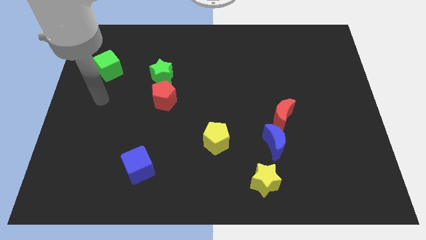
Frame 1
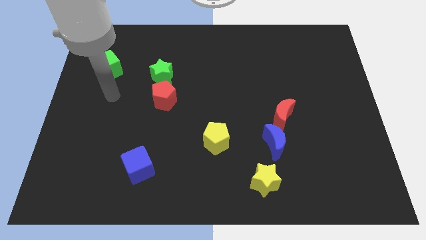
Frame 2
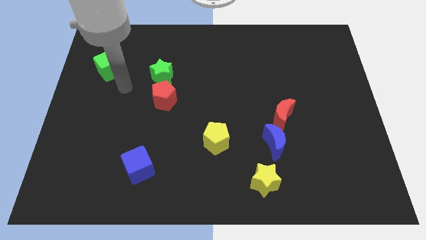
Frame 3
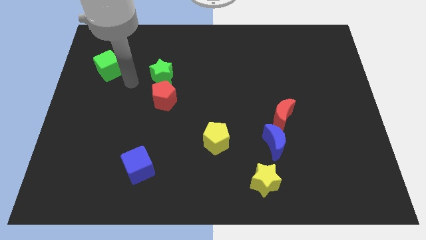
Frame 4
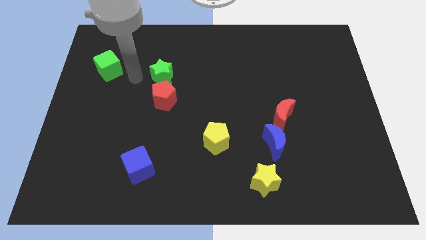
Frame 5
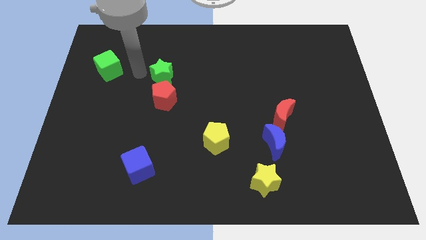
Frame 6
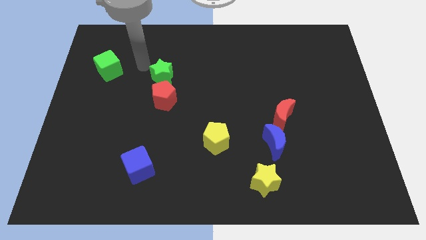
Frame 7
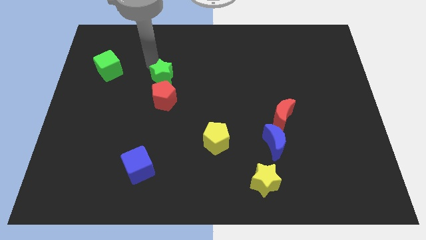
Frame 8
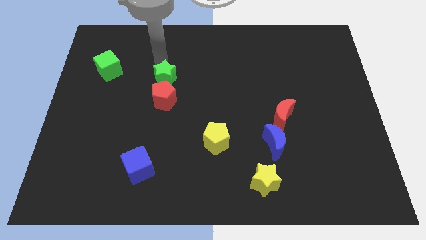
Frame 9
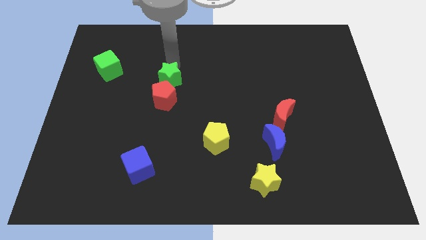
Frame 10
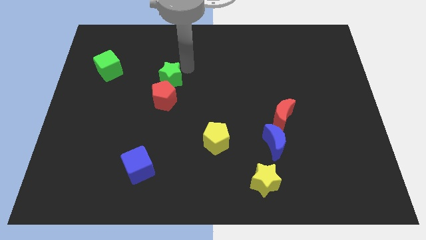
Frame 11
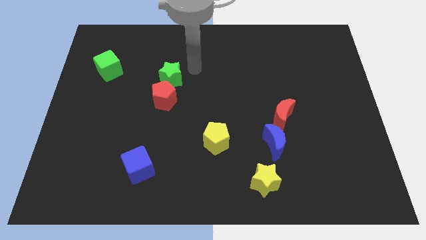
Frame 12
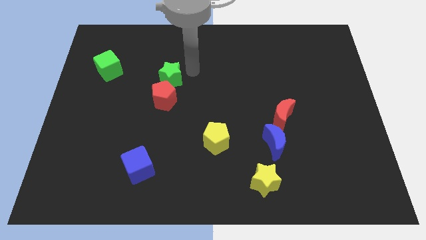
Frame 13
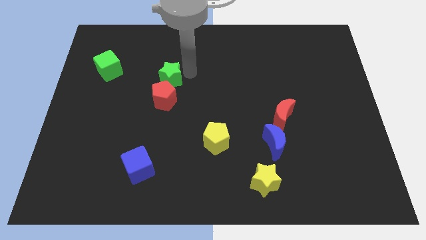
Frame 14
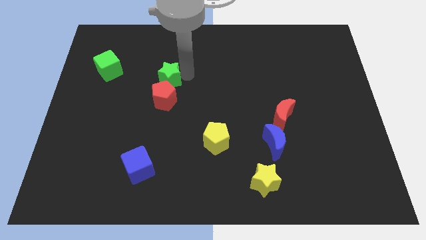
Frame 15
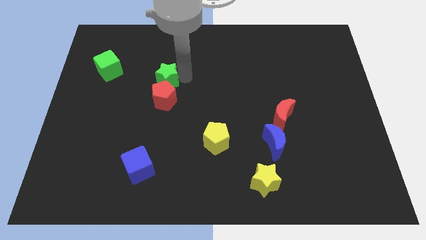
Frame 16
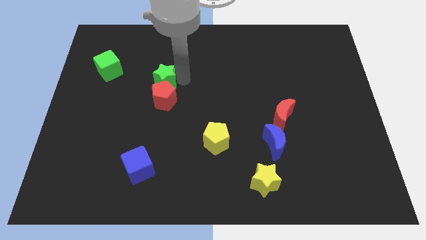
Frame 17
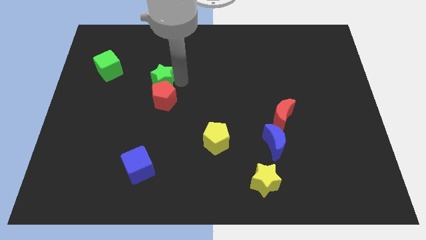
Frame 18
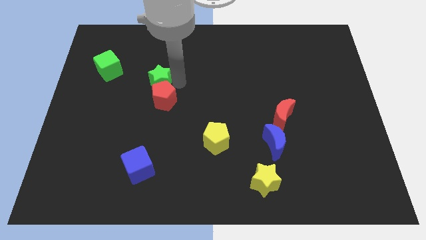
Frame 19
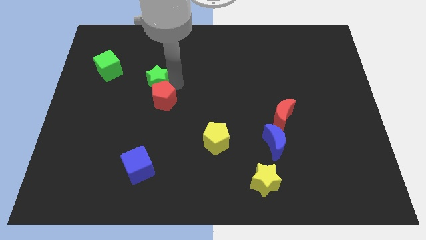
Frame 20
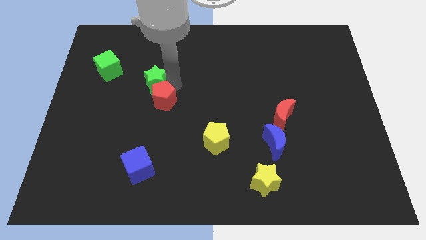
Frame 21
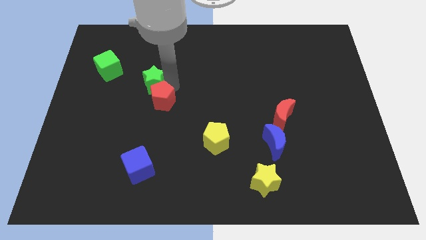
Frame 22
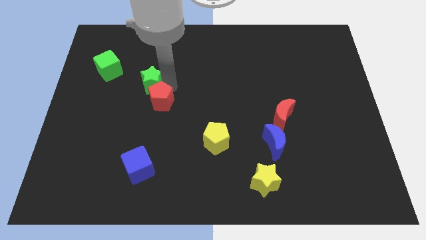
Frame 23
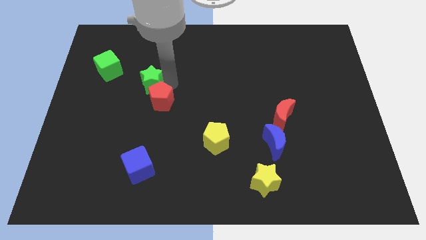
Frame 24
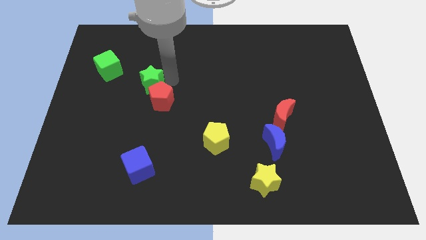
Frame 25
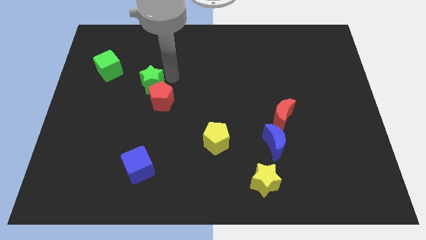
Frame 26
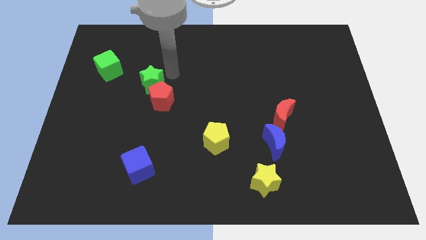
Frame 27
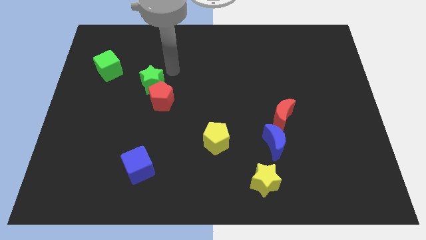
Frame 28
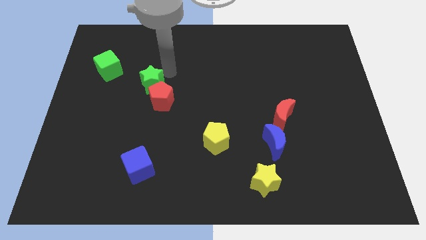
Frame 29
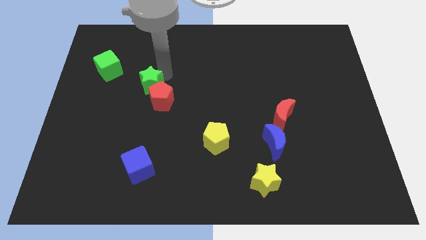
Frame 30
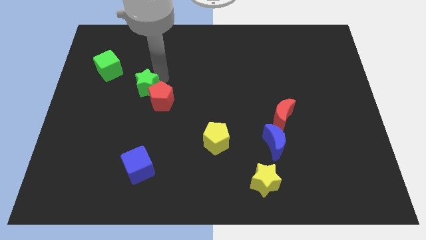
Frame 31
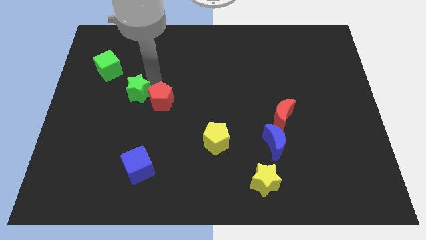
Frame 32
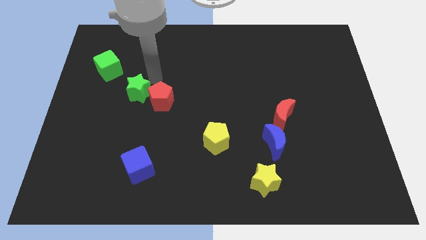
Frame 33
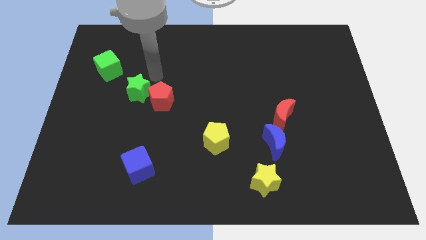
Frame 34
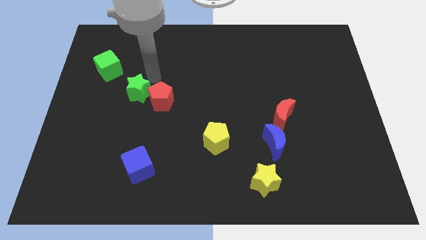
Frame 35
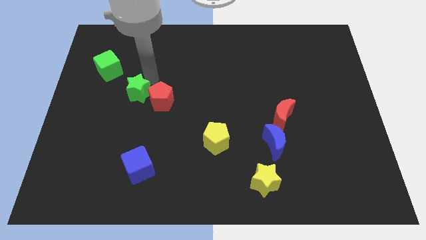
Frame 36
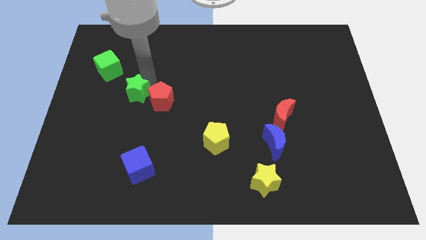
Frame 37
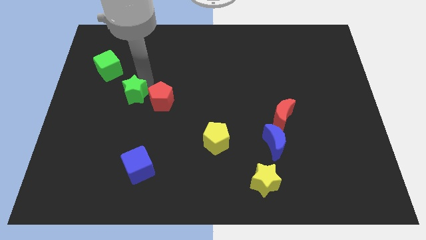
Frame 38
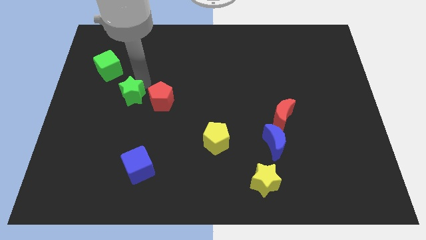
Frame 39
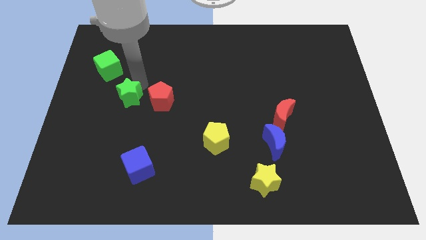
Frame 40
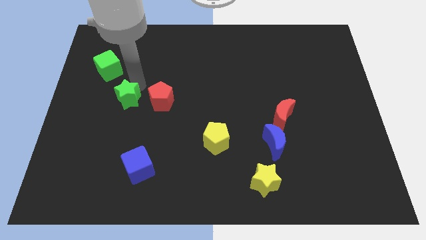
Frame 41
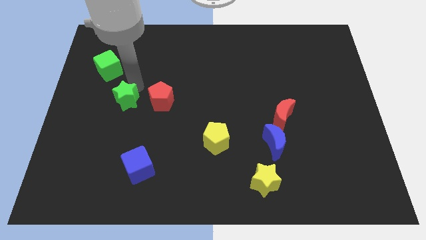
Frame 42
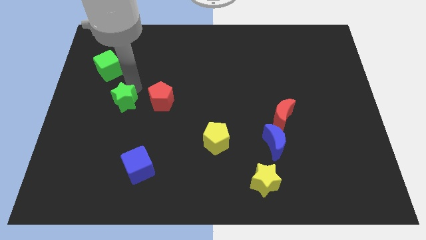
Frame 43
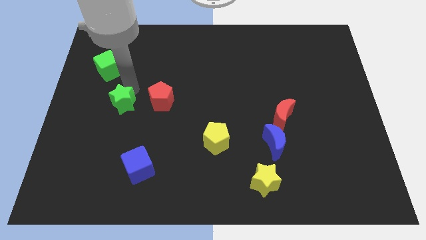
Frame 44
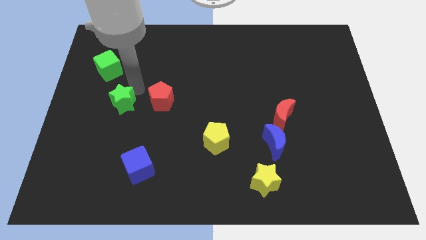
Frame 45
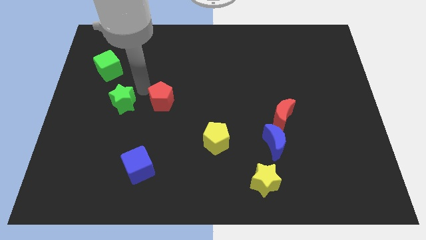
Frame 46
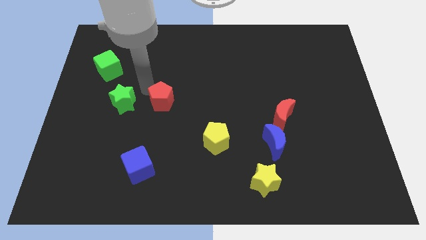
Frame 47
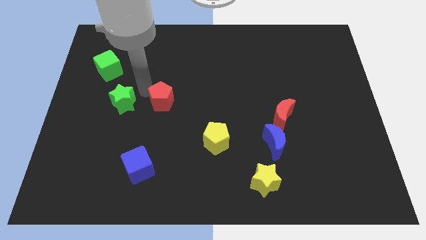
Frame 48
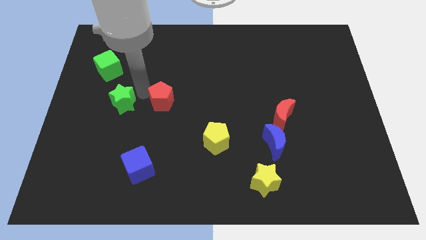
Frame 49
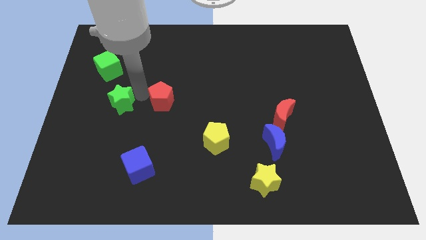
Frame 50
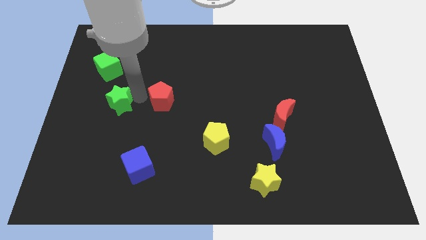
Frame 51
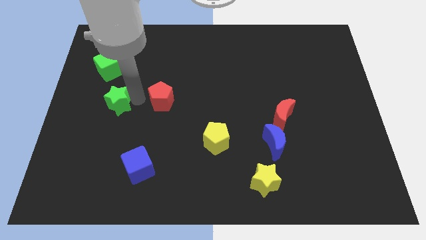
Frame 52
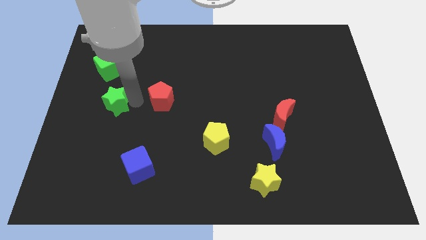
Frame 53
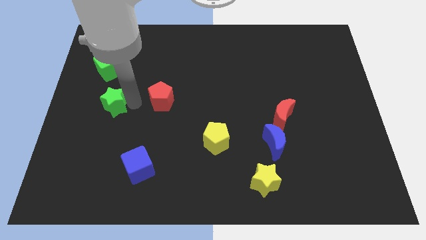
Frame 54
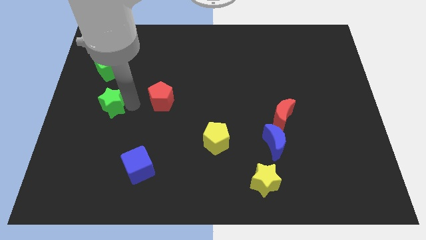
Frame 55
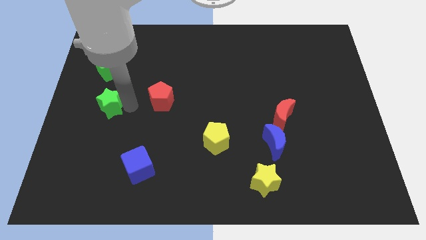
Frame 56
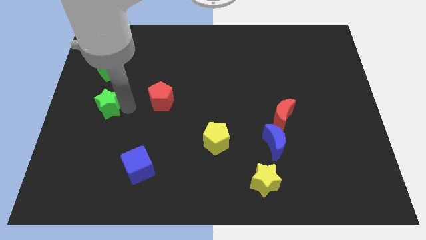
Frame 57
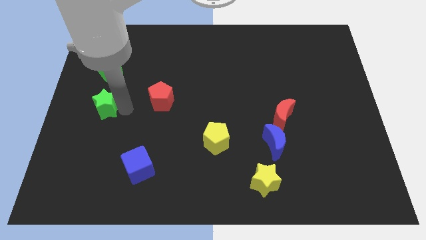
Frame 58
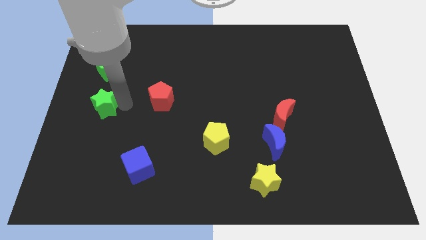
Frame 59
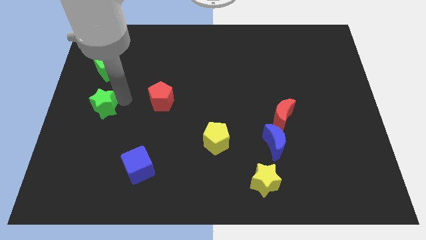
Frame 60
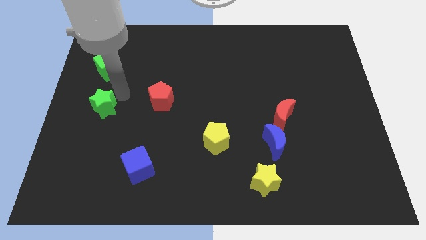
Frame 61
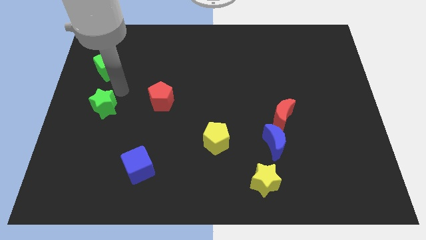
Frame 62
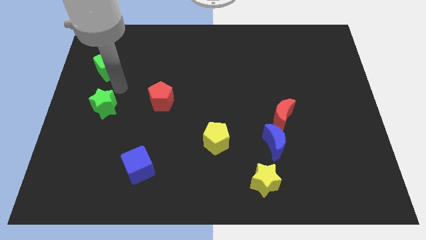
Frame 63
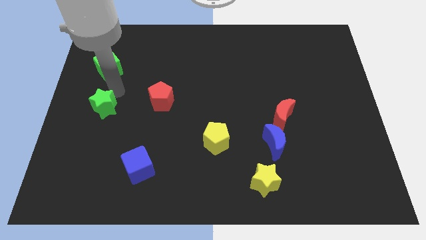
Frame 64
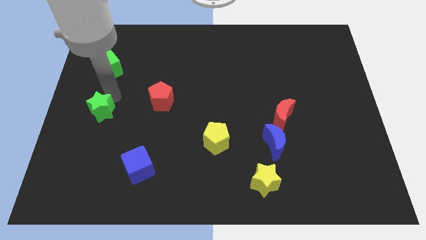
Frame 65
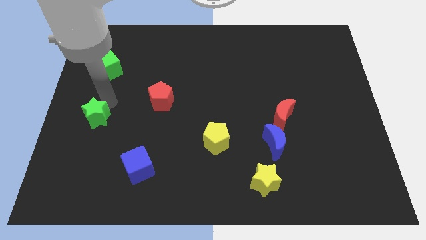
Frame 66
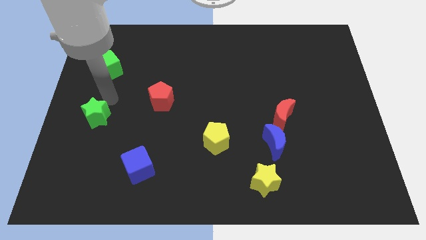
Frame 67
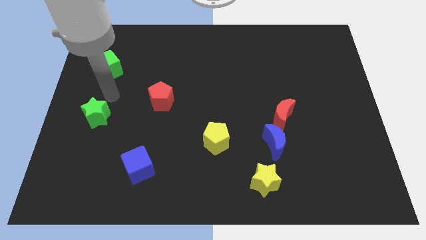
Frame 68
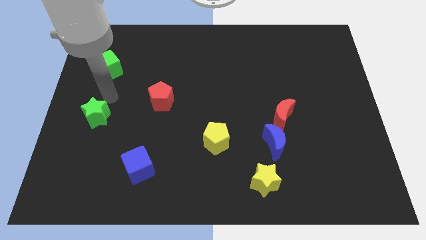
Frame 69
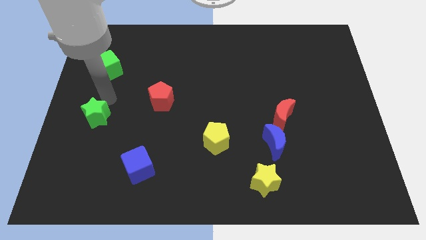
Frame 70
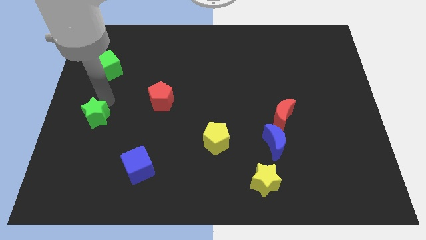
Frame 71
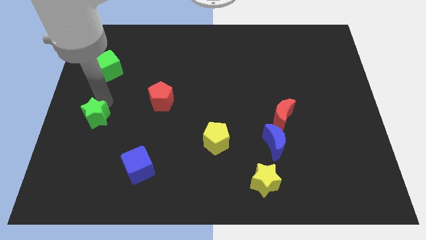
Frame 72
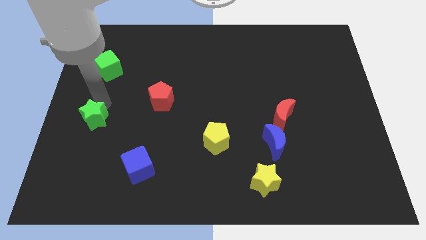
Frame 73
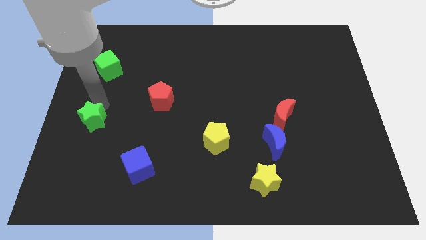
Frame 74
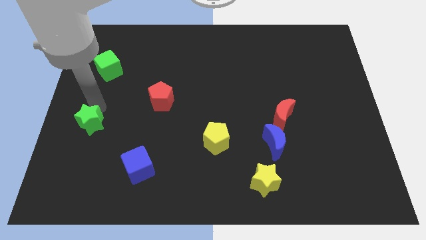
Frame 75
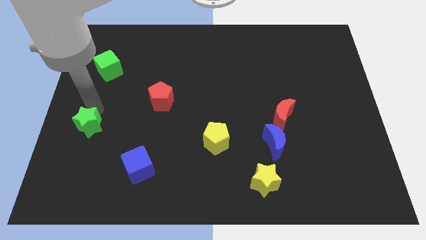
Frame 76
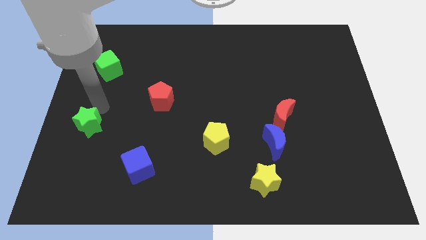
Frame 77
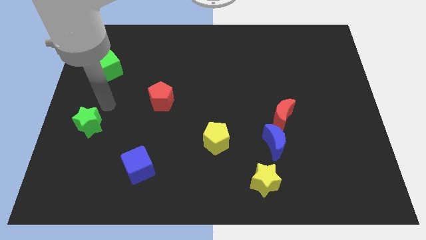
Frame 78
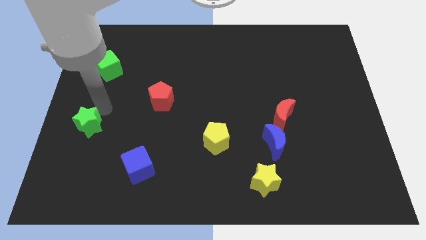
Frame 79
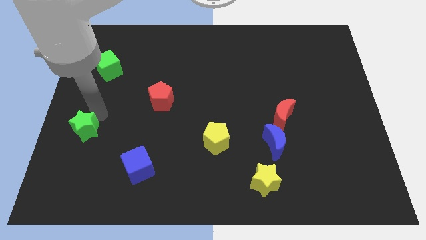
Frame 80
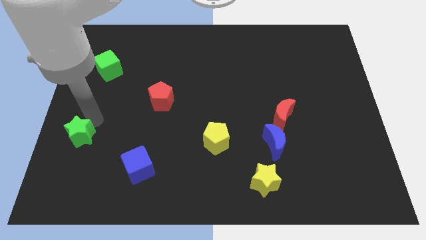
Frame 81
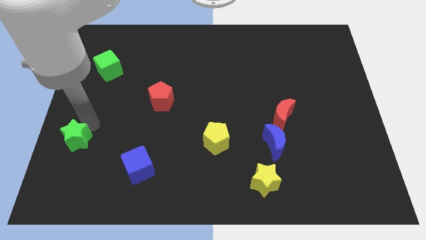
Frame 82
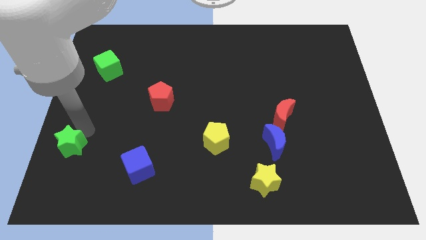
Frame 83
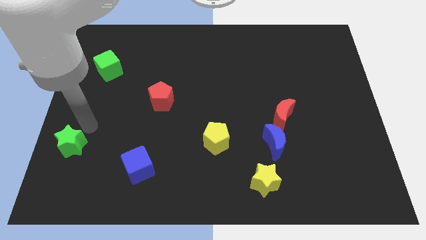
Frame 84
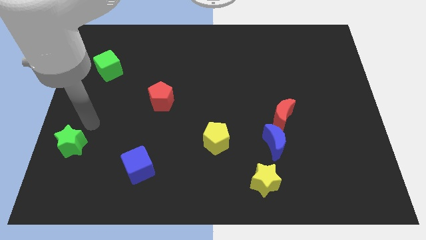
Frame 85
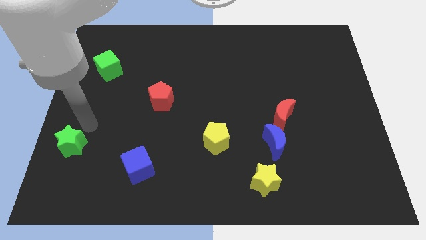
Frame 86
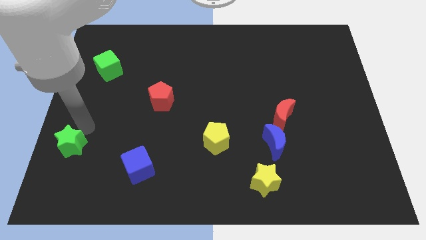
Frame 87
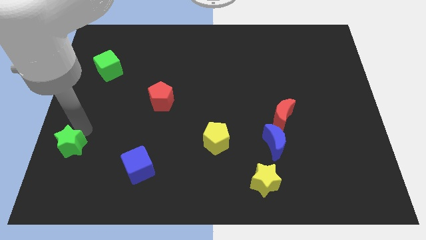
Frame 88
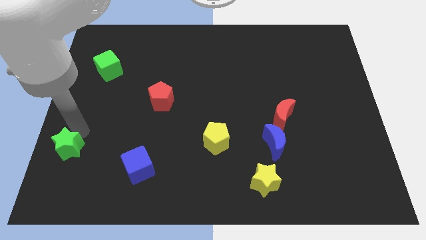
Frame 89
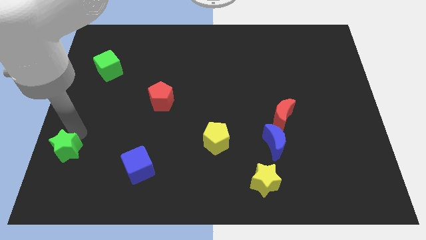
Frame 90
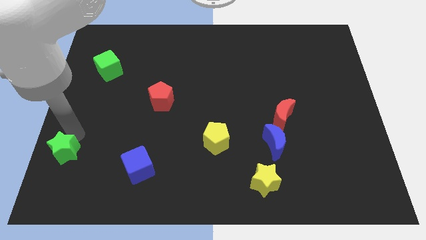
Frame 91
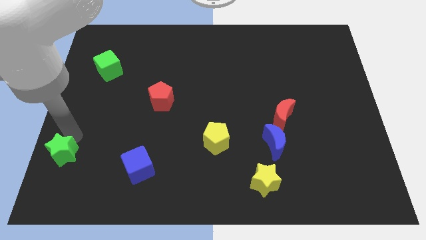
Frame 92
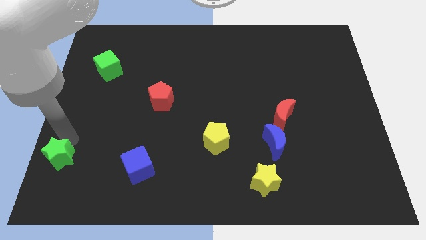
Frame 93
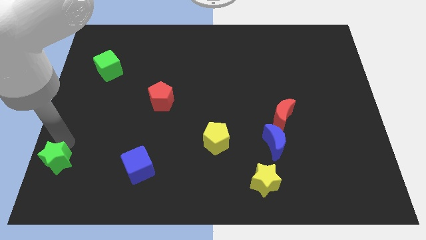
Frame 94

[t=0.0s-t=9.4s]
move the green star to the bottom left of the board
